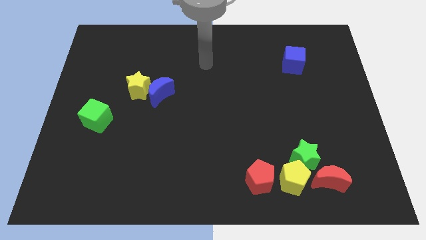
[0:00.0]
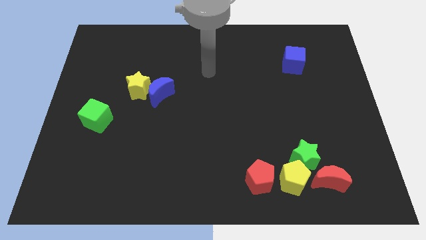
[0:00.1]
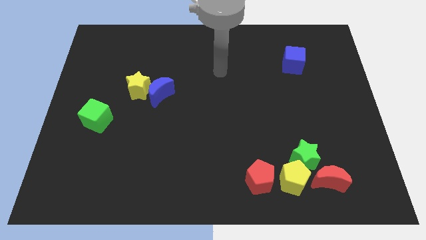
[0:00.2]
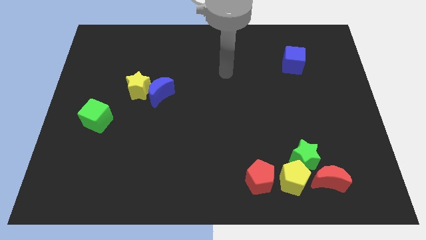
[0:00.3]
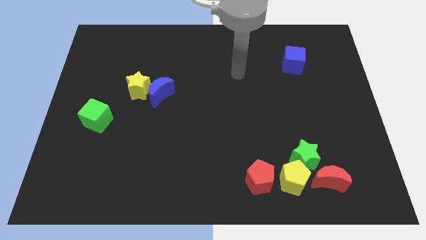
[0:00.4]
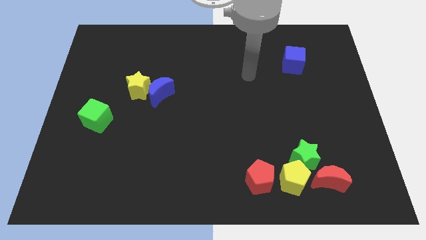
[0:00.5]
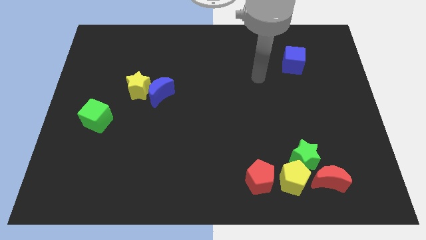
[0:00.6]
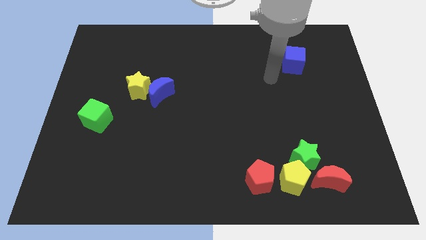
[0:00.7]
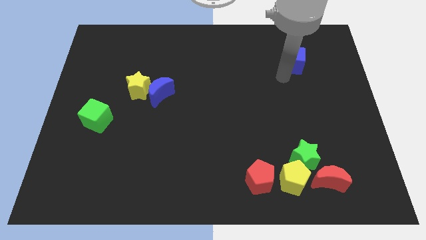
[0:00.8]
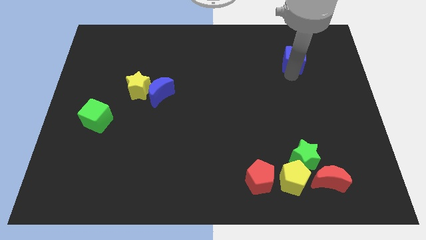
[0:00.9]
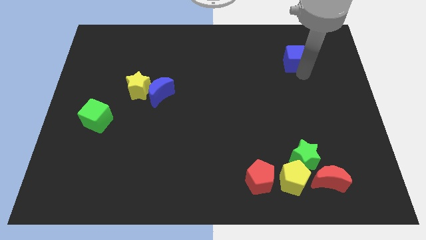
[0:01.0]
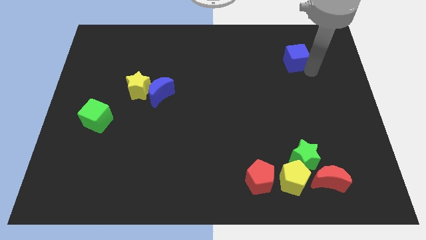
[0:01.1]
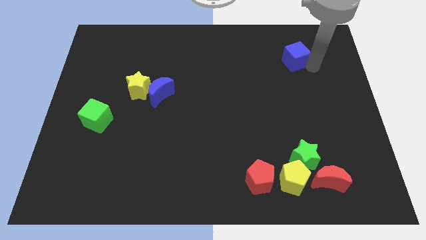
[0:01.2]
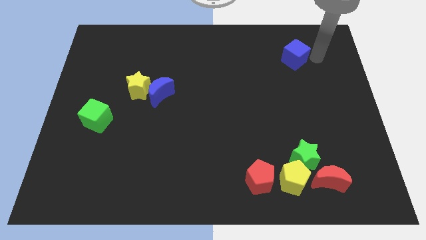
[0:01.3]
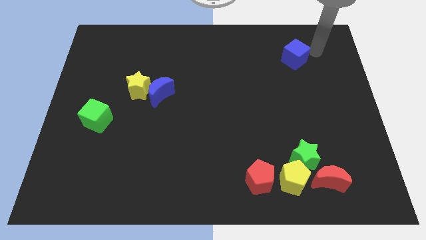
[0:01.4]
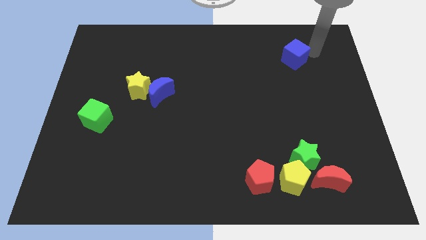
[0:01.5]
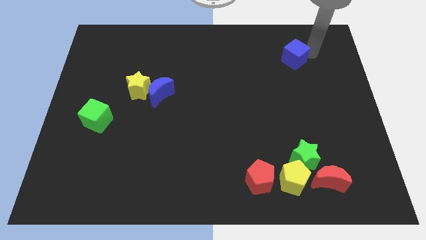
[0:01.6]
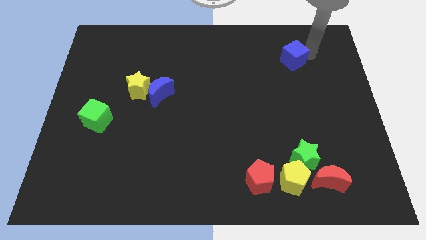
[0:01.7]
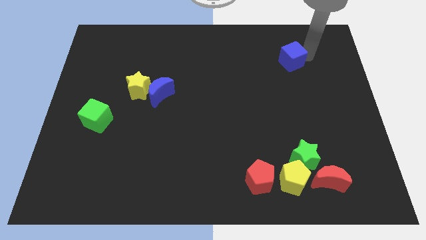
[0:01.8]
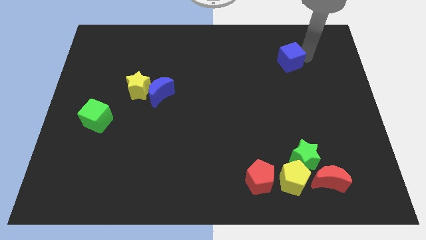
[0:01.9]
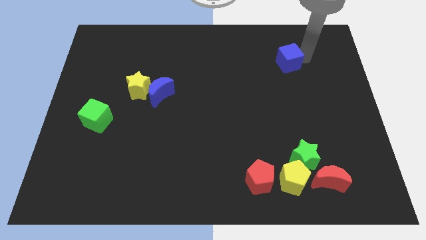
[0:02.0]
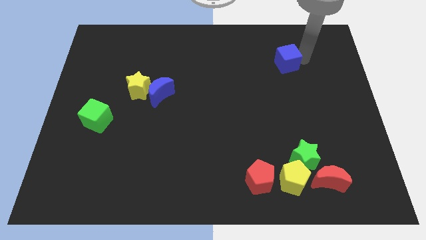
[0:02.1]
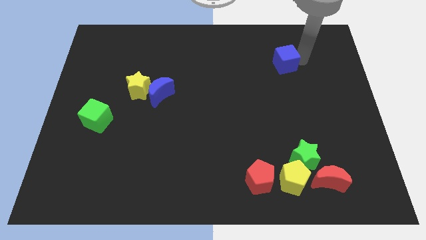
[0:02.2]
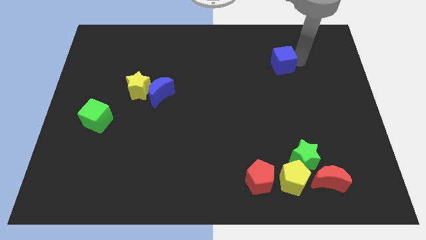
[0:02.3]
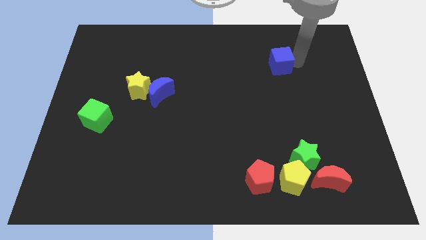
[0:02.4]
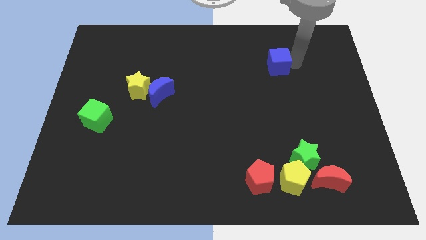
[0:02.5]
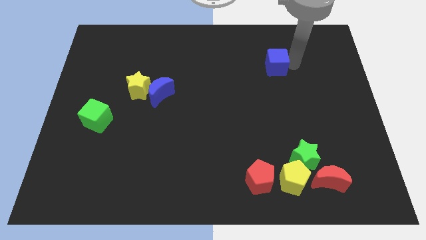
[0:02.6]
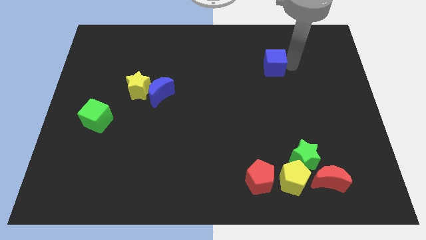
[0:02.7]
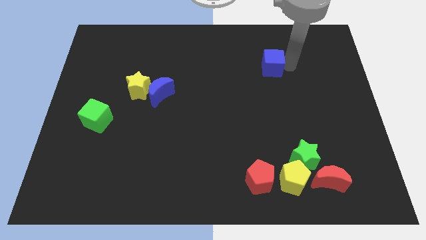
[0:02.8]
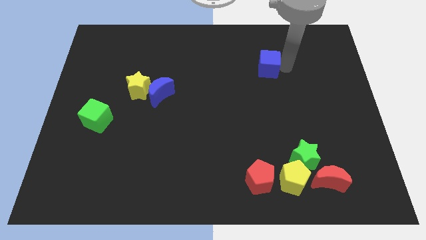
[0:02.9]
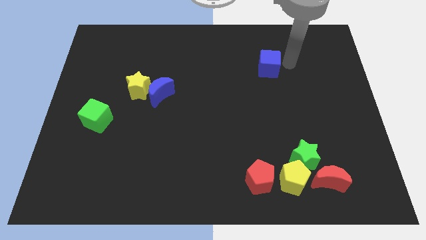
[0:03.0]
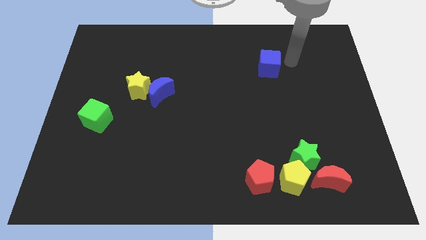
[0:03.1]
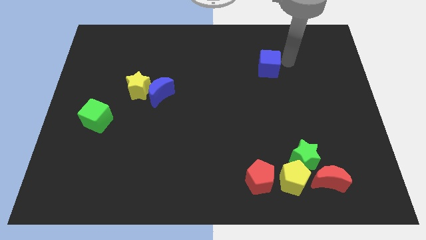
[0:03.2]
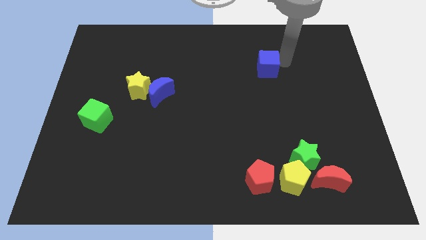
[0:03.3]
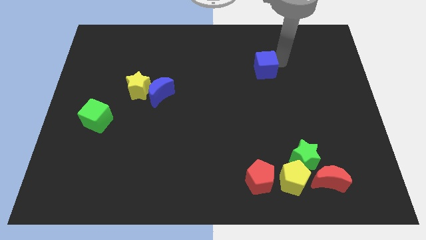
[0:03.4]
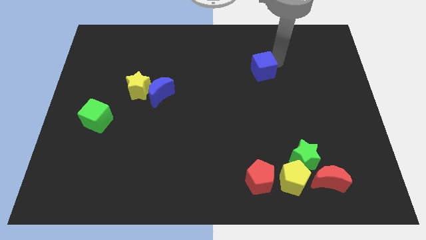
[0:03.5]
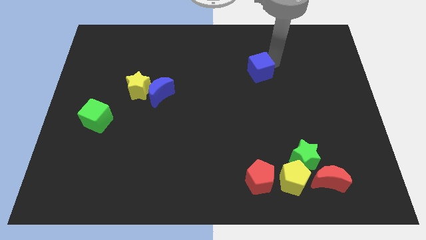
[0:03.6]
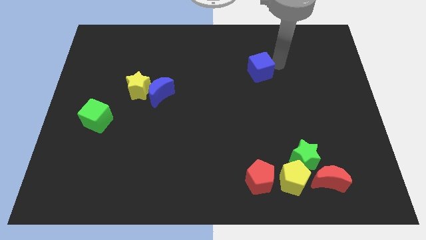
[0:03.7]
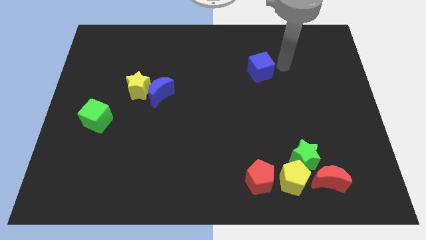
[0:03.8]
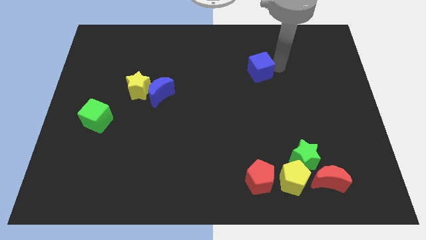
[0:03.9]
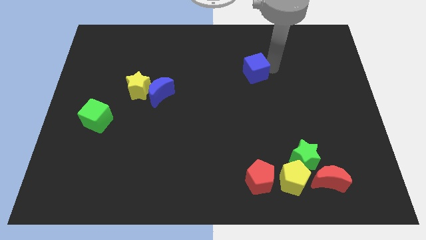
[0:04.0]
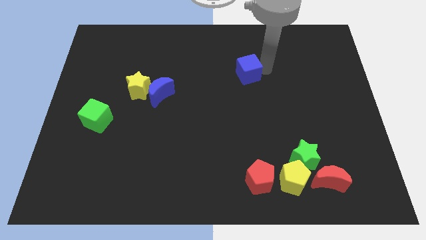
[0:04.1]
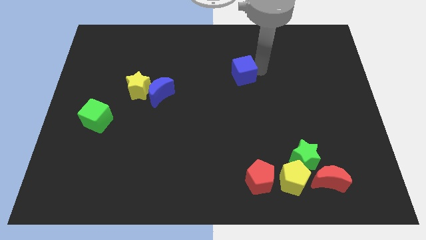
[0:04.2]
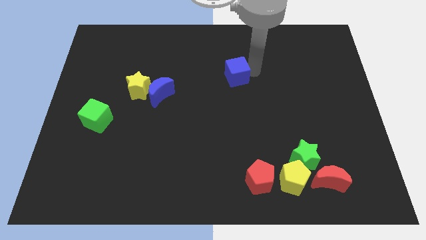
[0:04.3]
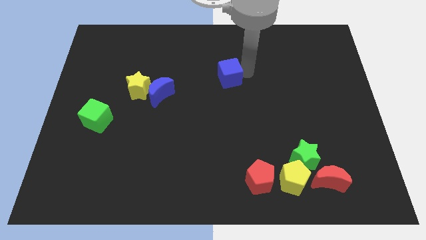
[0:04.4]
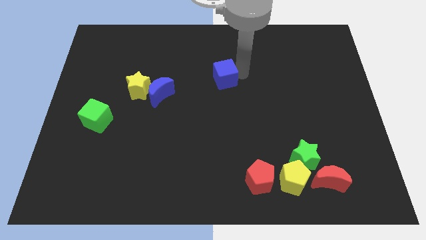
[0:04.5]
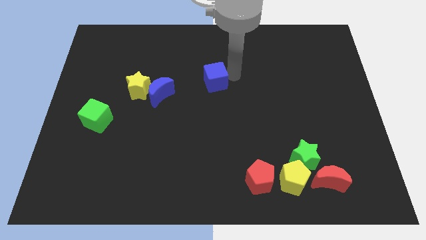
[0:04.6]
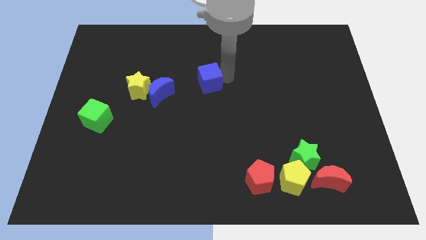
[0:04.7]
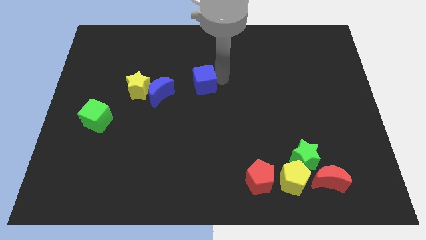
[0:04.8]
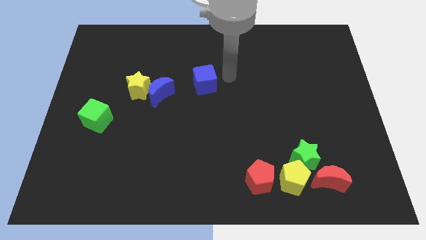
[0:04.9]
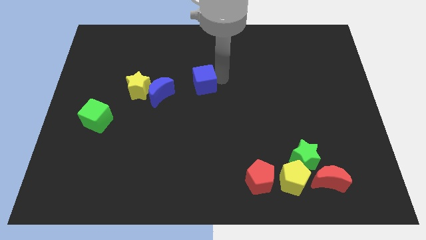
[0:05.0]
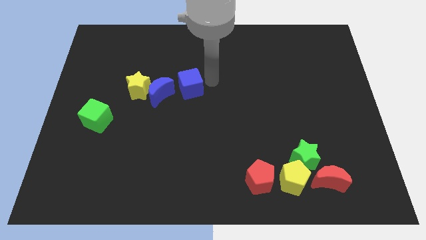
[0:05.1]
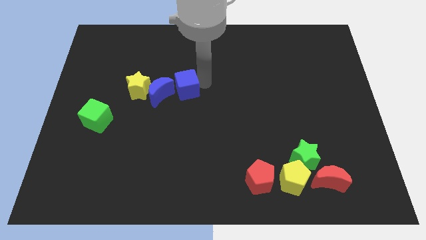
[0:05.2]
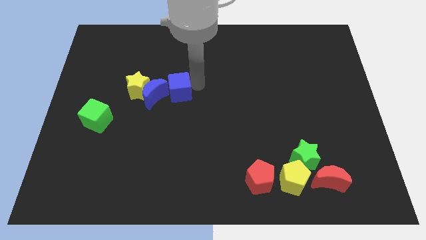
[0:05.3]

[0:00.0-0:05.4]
put the blue cube next to the blue moon

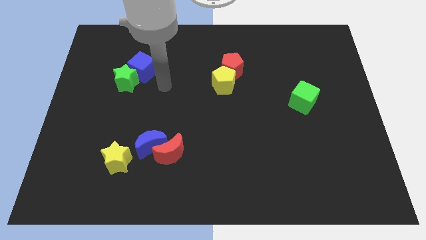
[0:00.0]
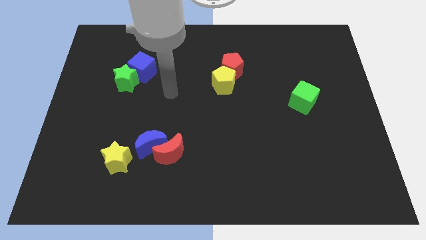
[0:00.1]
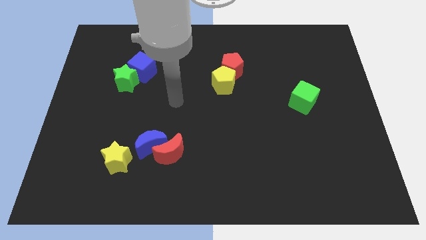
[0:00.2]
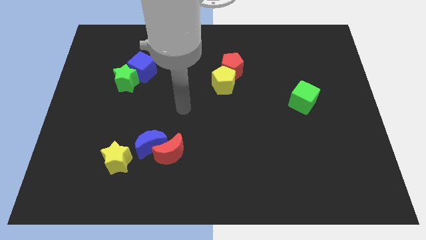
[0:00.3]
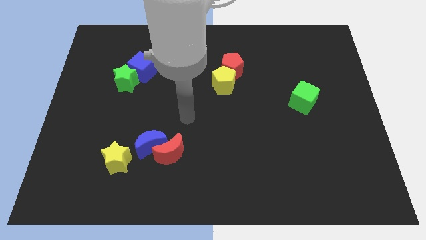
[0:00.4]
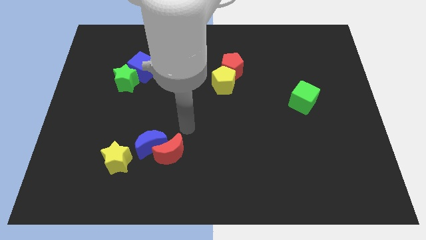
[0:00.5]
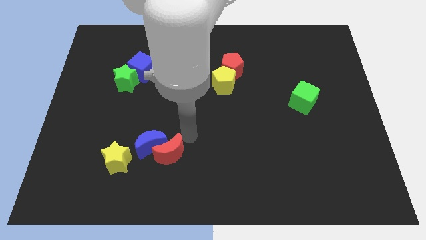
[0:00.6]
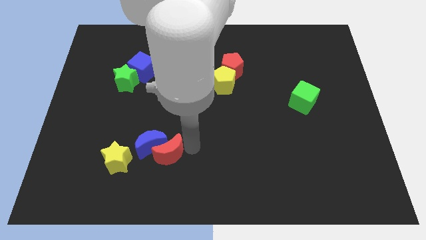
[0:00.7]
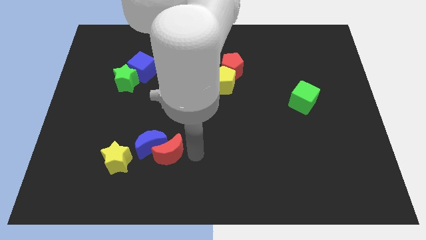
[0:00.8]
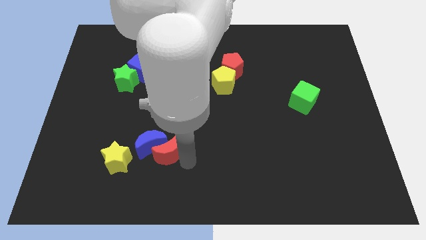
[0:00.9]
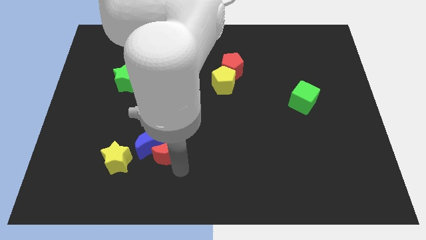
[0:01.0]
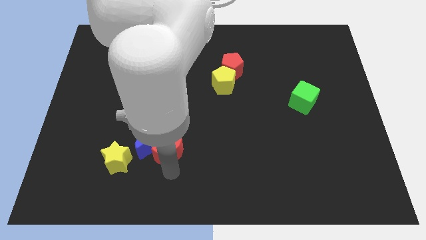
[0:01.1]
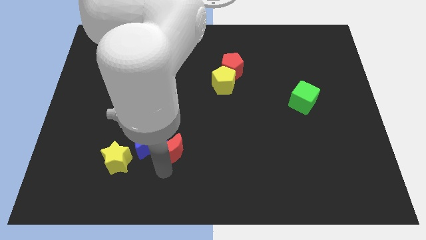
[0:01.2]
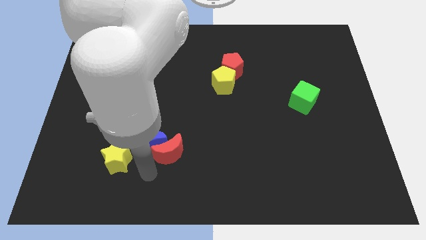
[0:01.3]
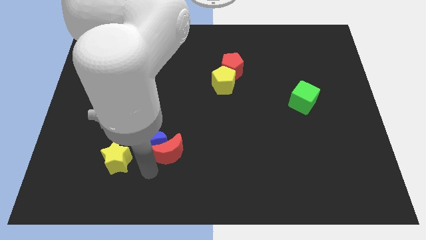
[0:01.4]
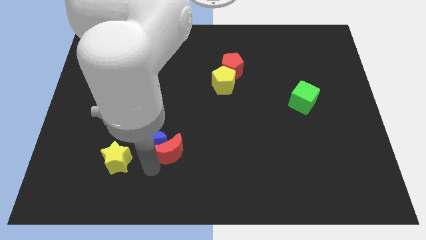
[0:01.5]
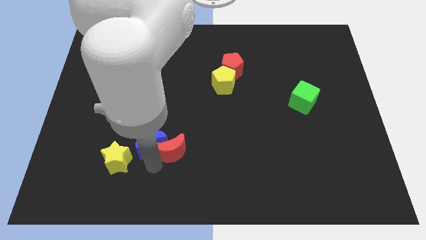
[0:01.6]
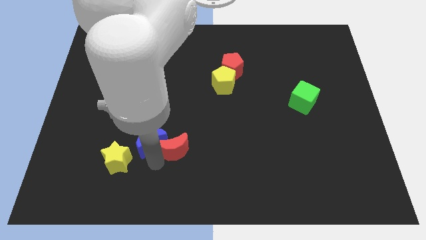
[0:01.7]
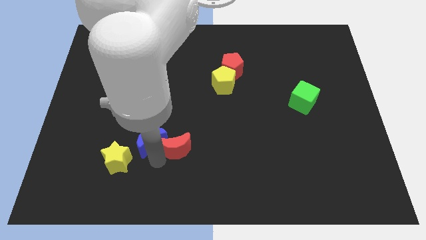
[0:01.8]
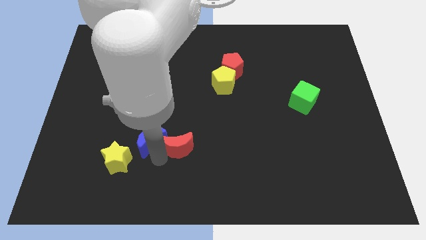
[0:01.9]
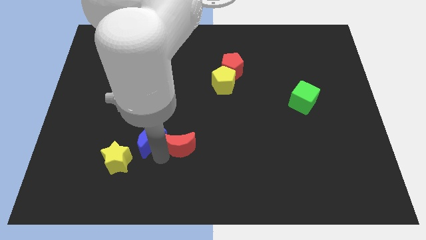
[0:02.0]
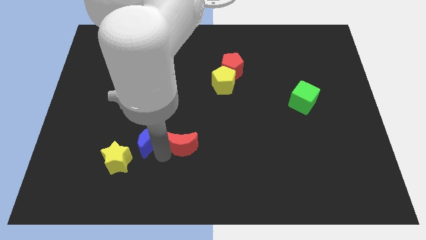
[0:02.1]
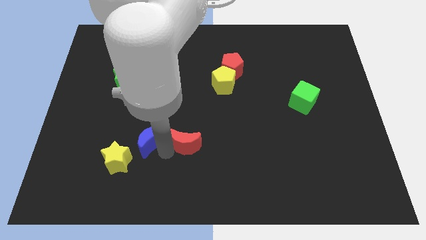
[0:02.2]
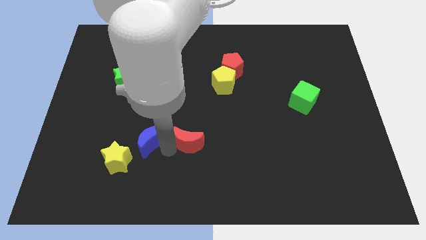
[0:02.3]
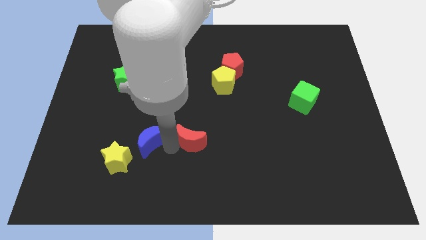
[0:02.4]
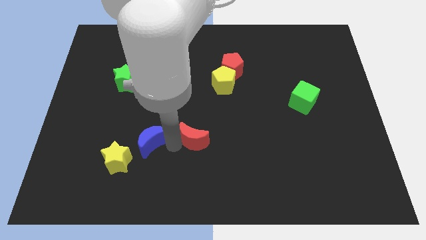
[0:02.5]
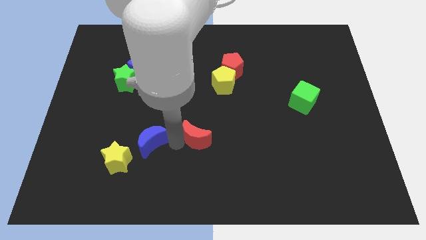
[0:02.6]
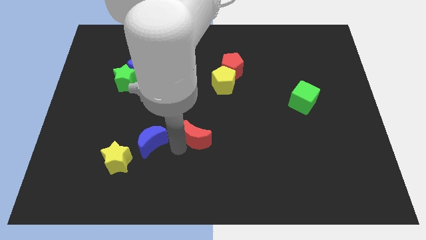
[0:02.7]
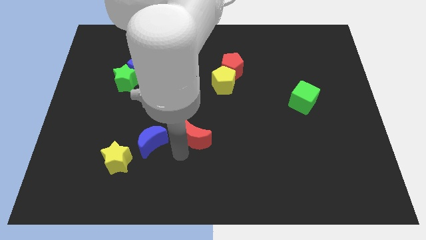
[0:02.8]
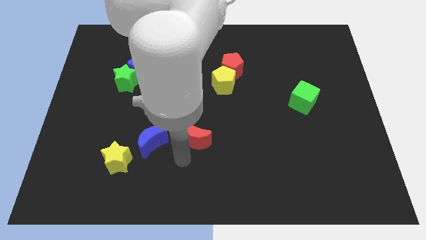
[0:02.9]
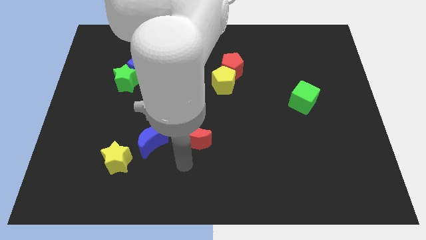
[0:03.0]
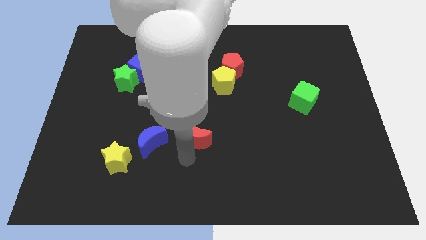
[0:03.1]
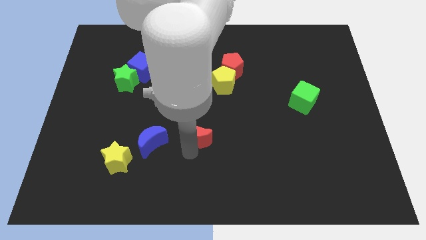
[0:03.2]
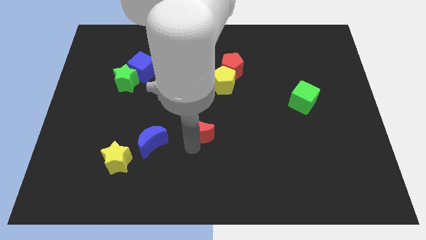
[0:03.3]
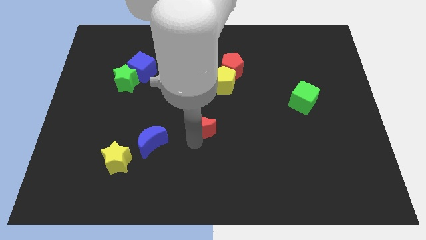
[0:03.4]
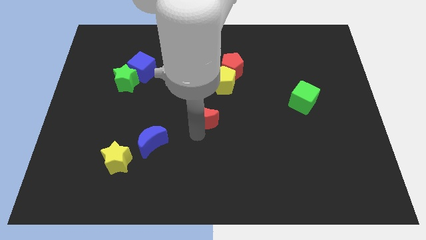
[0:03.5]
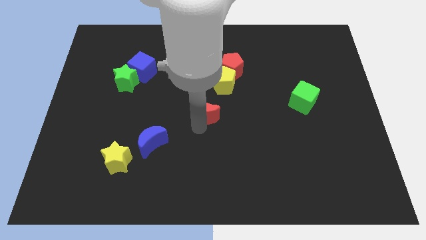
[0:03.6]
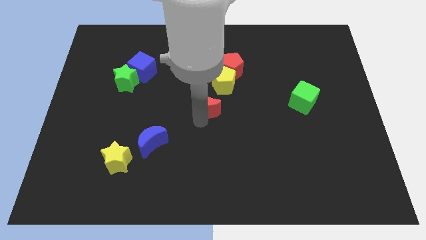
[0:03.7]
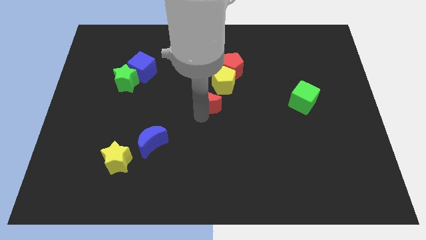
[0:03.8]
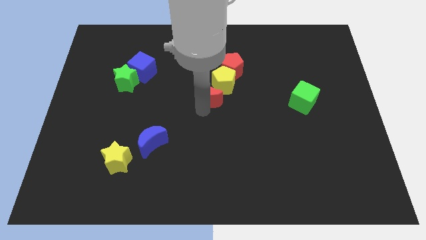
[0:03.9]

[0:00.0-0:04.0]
slide the red moon towards the yellow pentagon
